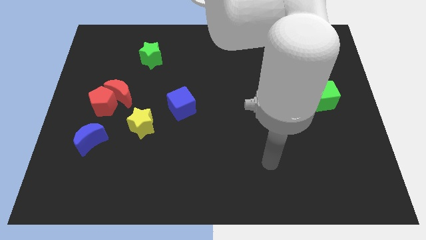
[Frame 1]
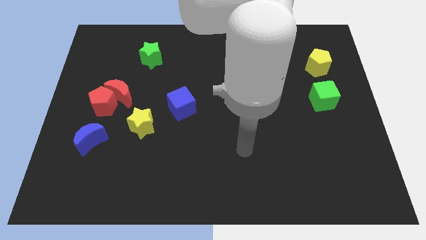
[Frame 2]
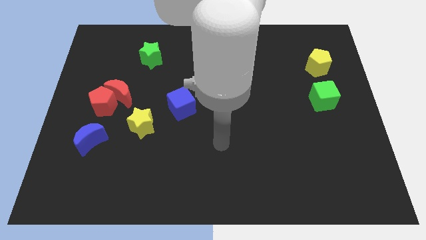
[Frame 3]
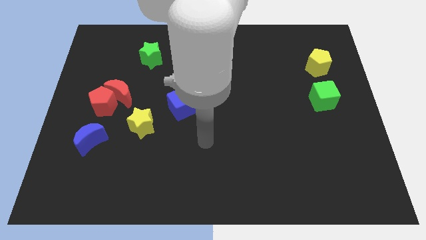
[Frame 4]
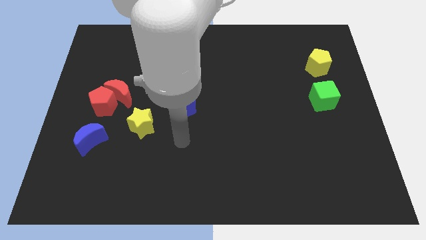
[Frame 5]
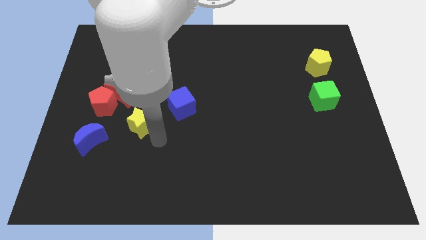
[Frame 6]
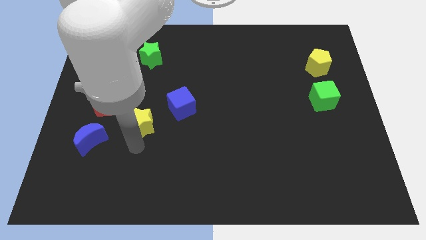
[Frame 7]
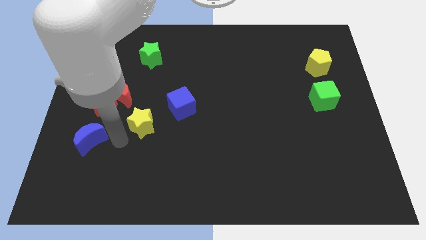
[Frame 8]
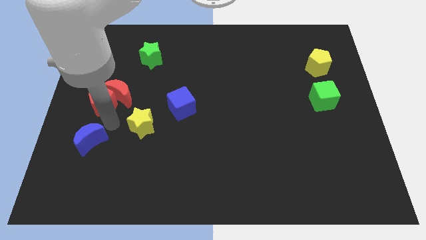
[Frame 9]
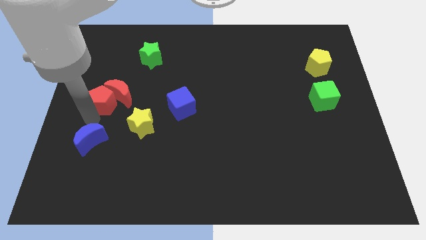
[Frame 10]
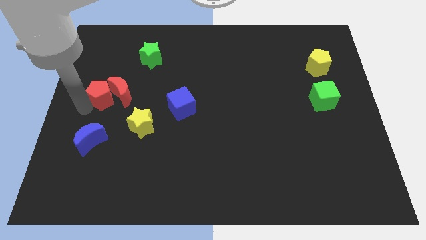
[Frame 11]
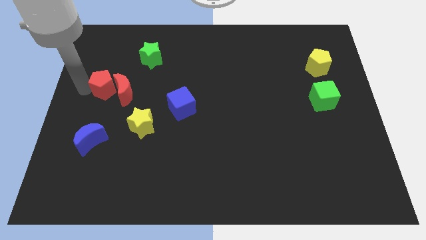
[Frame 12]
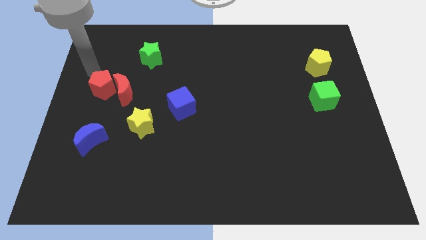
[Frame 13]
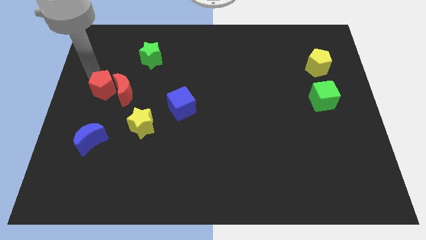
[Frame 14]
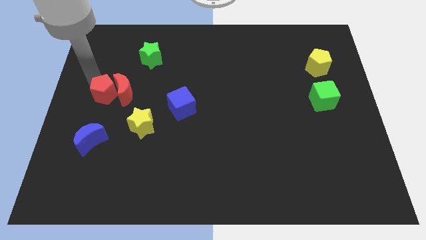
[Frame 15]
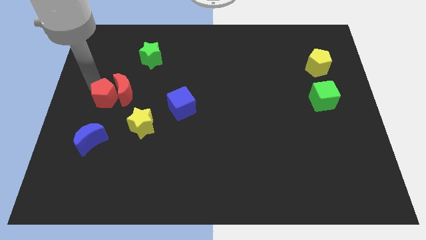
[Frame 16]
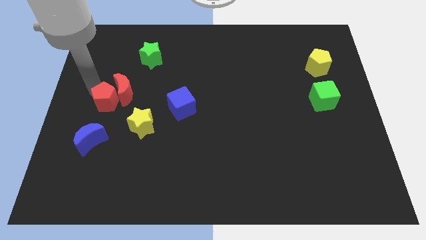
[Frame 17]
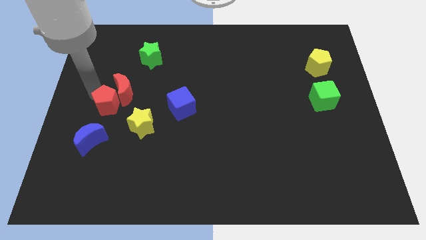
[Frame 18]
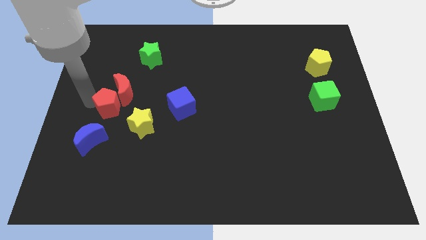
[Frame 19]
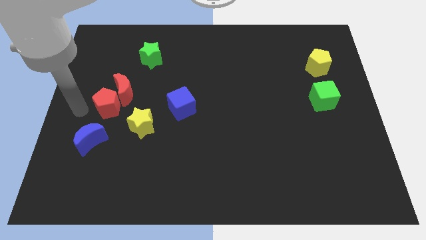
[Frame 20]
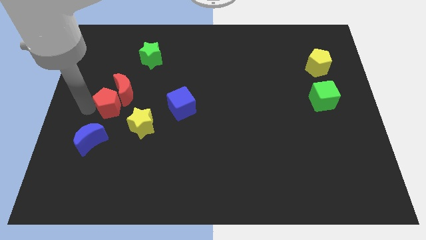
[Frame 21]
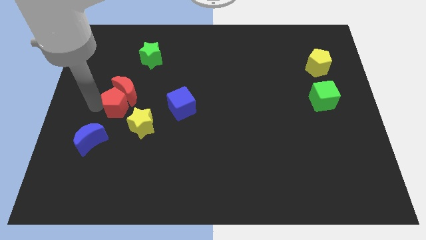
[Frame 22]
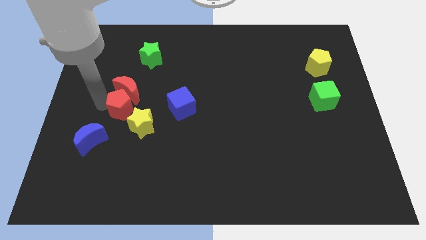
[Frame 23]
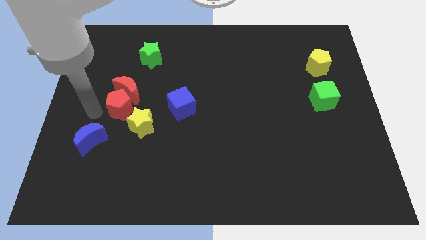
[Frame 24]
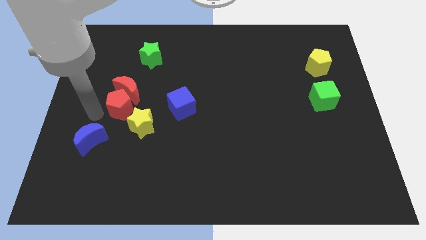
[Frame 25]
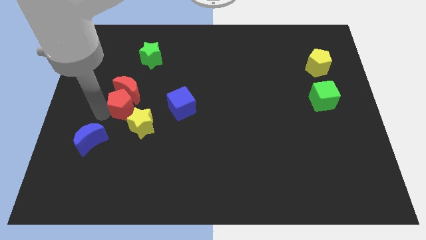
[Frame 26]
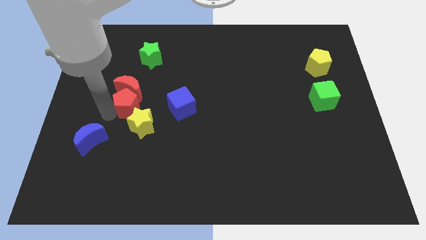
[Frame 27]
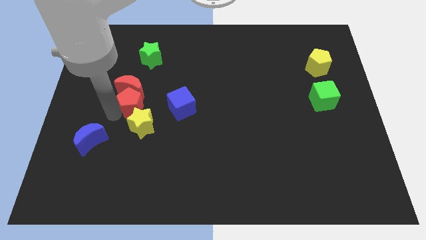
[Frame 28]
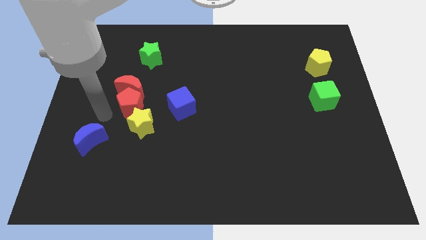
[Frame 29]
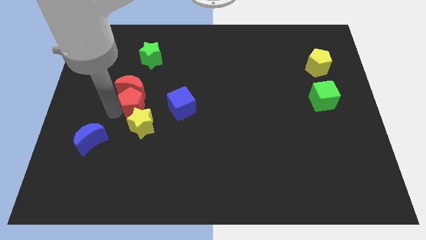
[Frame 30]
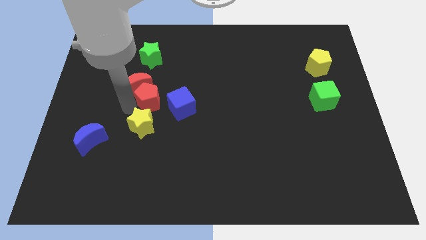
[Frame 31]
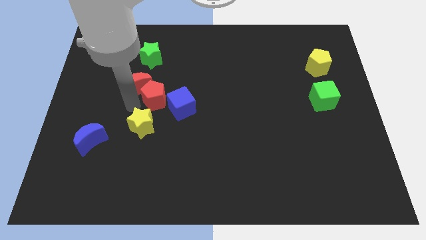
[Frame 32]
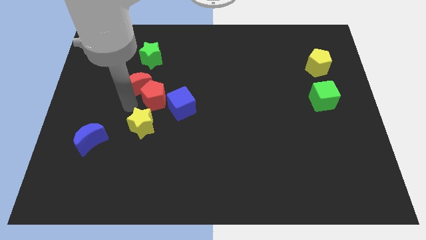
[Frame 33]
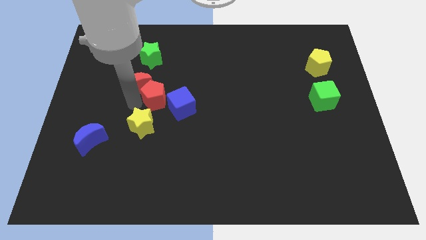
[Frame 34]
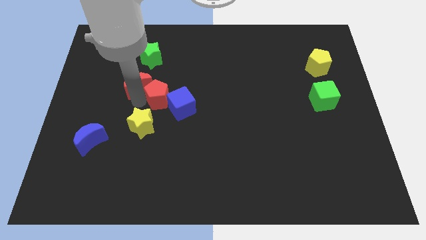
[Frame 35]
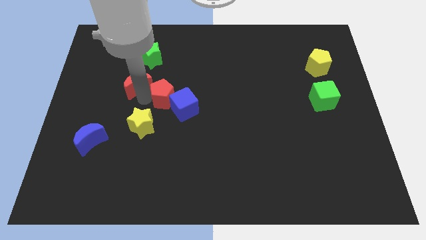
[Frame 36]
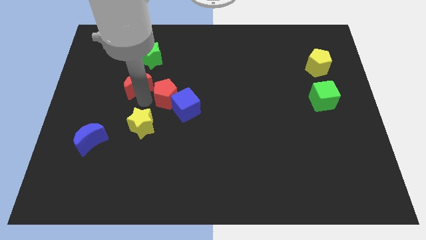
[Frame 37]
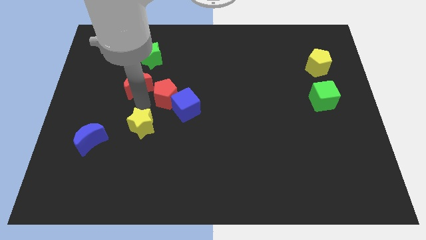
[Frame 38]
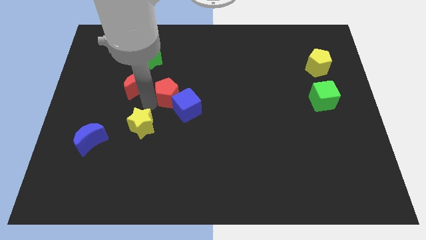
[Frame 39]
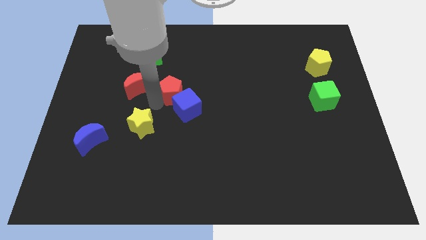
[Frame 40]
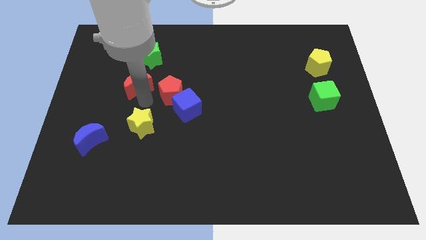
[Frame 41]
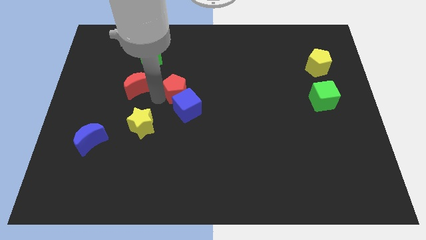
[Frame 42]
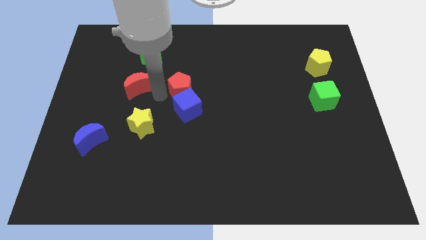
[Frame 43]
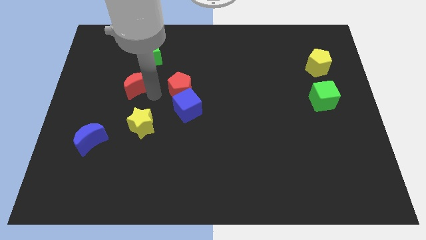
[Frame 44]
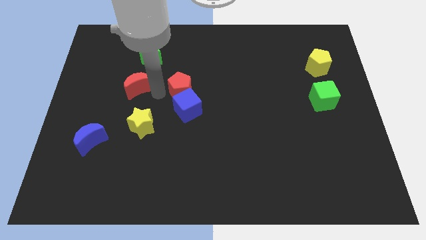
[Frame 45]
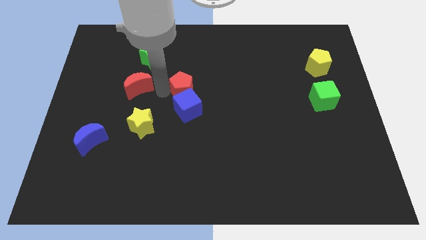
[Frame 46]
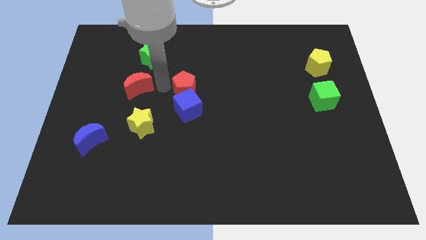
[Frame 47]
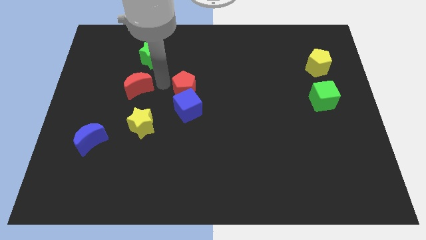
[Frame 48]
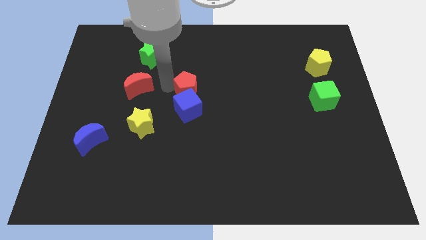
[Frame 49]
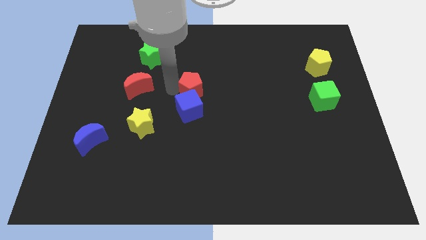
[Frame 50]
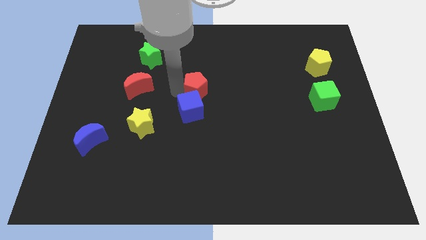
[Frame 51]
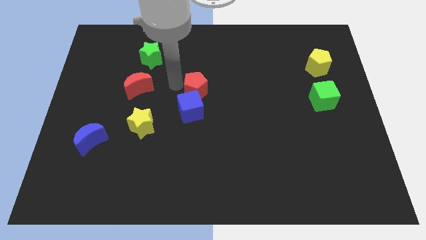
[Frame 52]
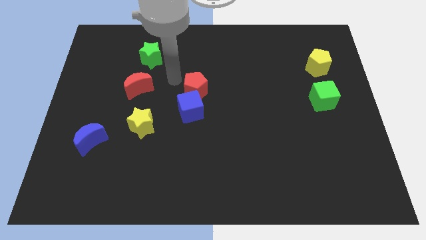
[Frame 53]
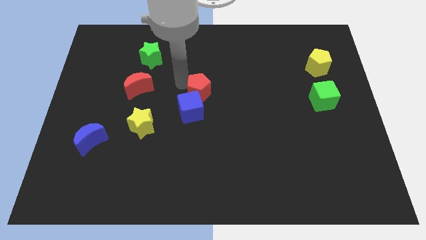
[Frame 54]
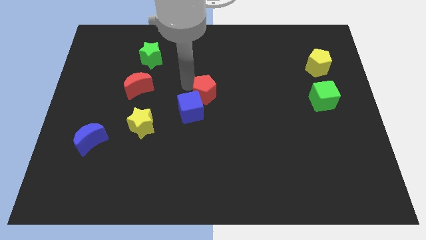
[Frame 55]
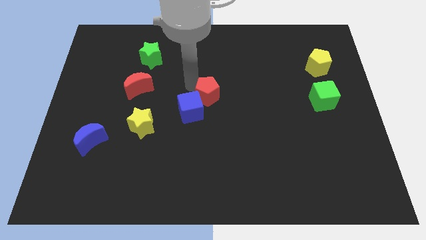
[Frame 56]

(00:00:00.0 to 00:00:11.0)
move the red pentagon right of the blue cube

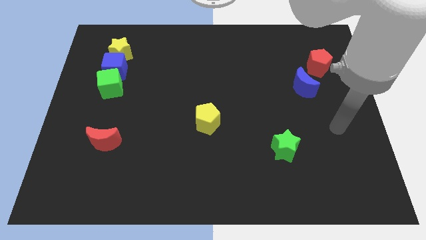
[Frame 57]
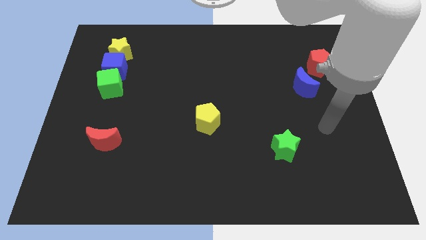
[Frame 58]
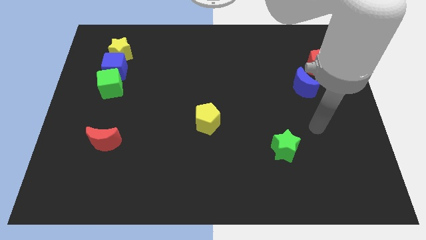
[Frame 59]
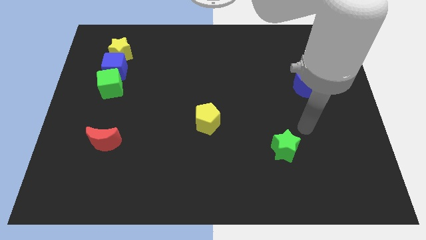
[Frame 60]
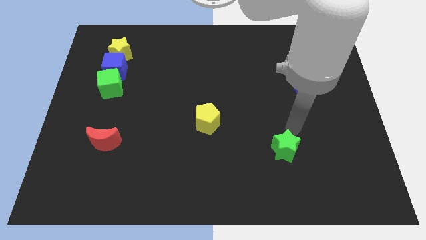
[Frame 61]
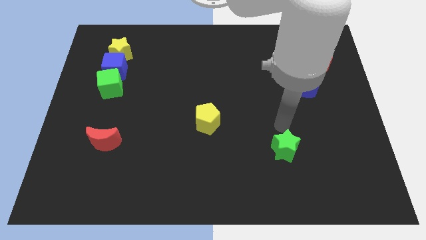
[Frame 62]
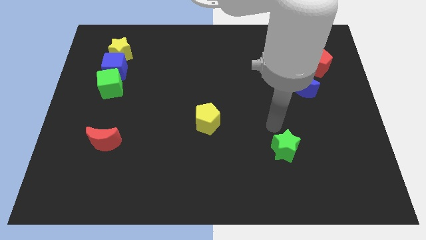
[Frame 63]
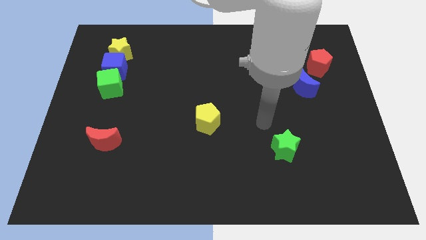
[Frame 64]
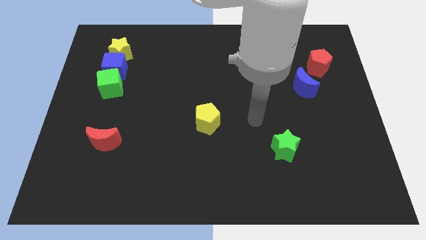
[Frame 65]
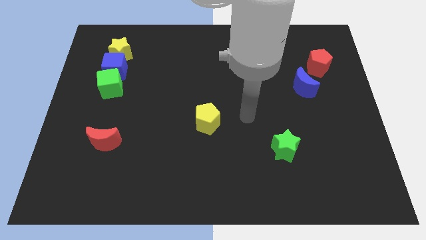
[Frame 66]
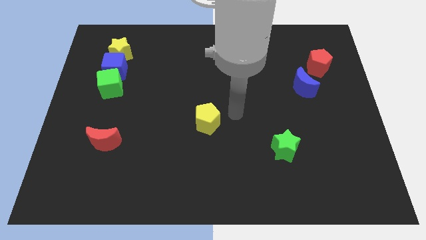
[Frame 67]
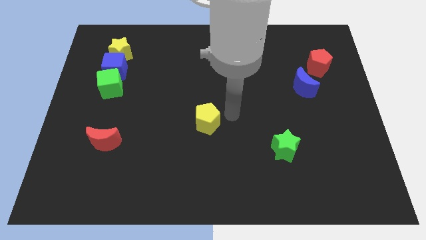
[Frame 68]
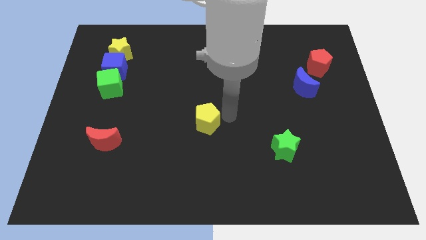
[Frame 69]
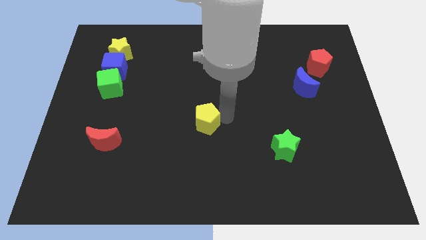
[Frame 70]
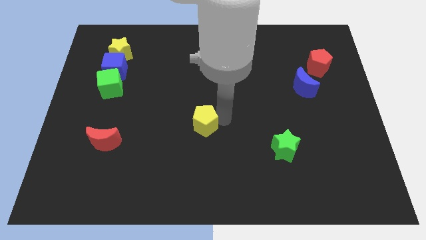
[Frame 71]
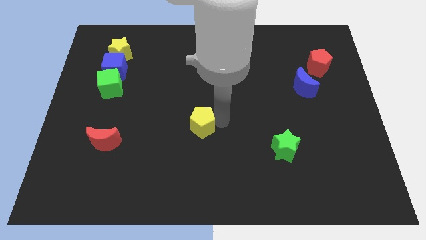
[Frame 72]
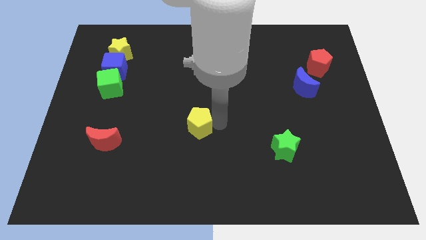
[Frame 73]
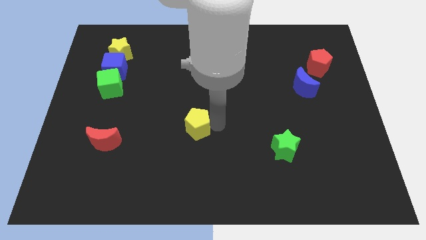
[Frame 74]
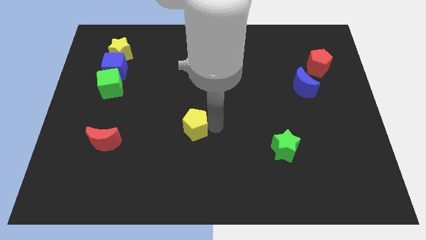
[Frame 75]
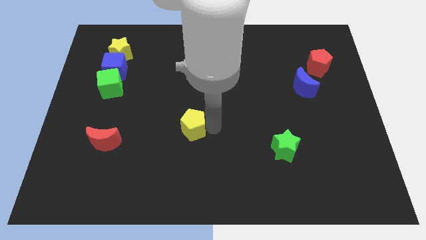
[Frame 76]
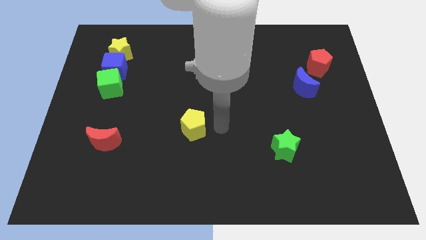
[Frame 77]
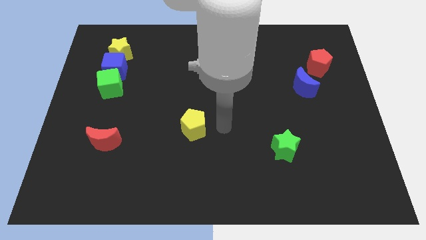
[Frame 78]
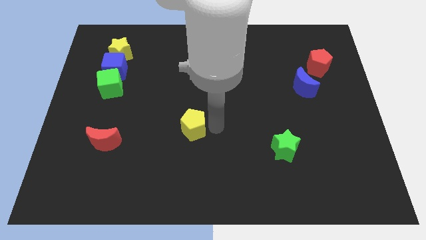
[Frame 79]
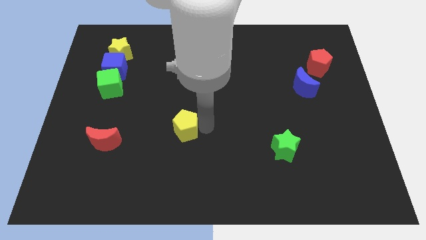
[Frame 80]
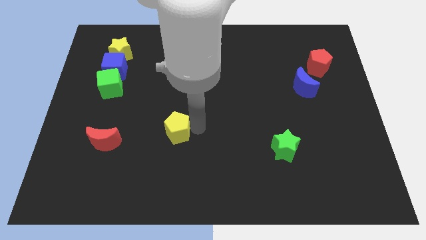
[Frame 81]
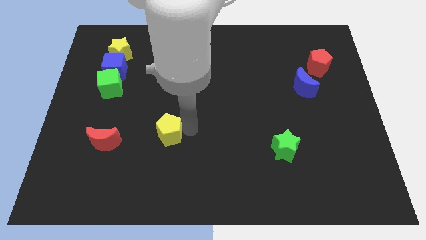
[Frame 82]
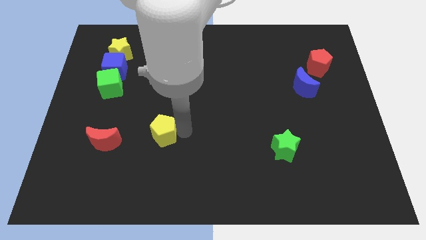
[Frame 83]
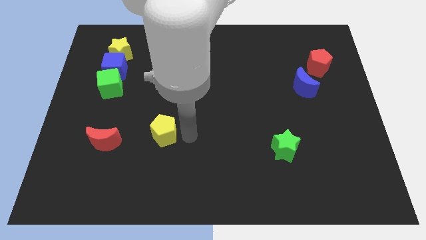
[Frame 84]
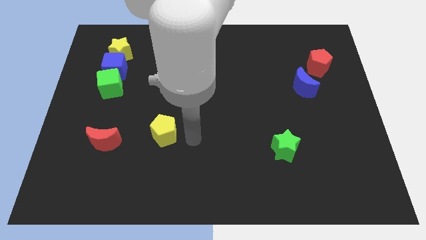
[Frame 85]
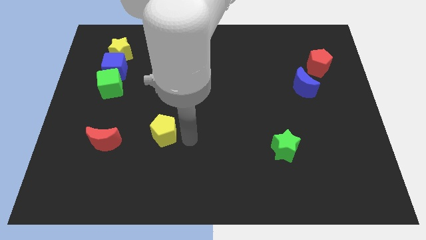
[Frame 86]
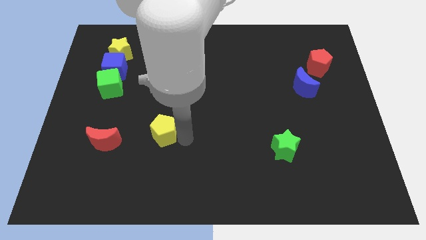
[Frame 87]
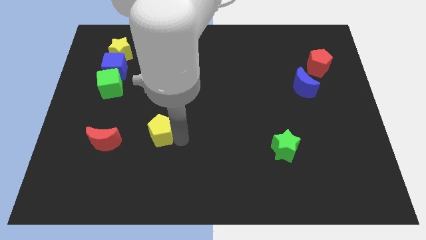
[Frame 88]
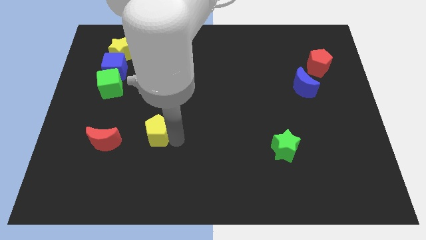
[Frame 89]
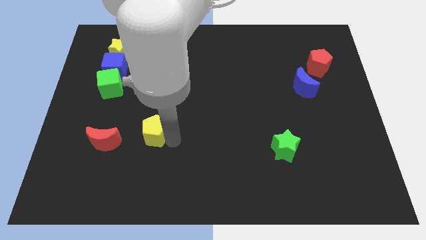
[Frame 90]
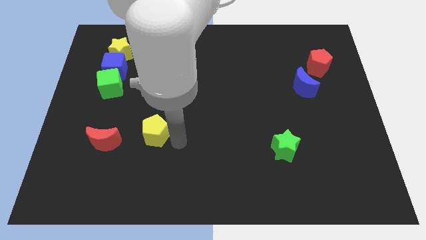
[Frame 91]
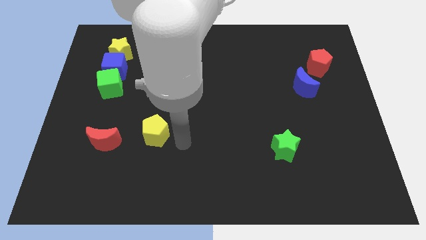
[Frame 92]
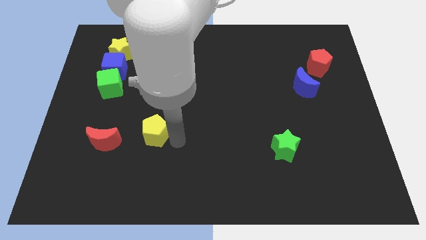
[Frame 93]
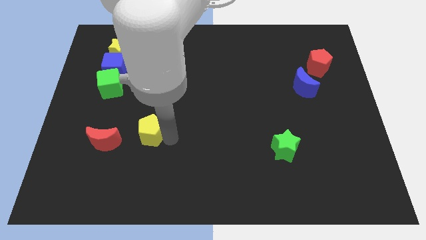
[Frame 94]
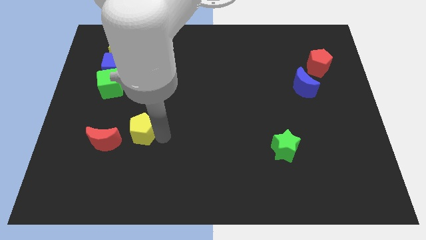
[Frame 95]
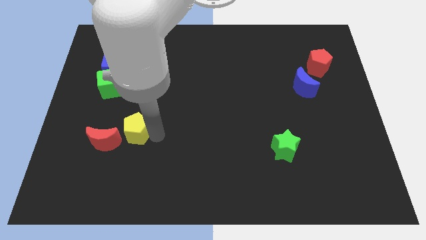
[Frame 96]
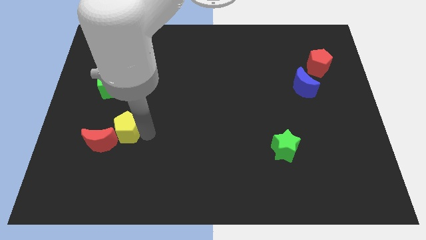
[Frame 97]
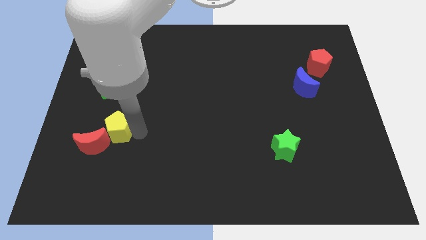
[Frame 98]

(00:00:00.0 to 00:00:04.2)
move the yellow pentagon to the bottom of the green cube
